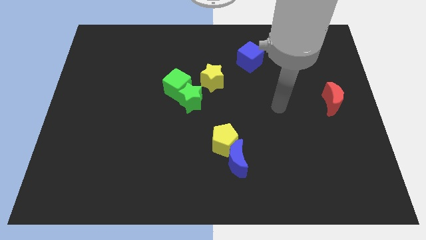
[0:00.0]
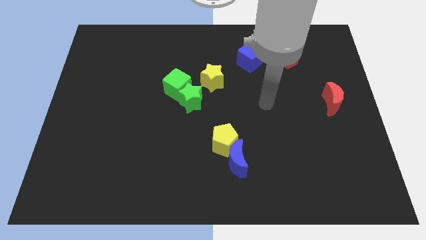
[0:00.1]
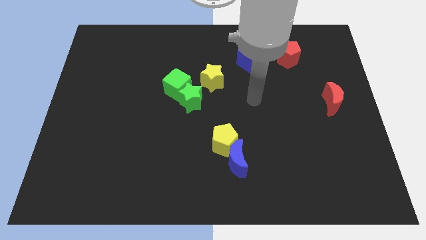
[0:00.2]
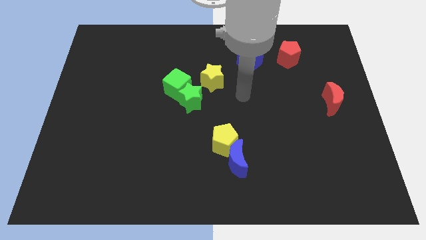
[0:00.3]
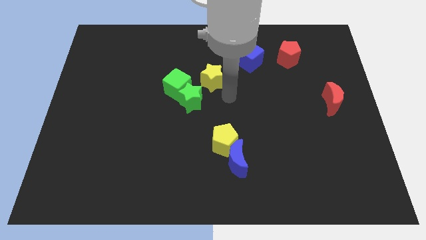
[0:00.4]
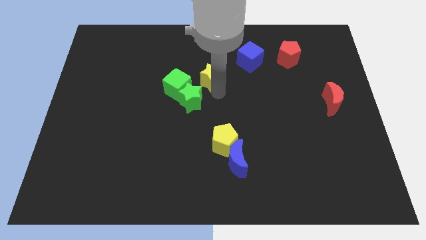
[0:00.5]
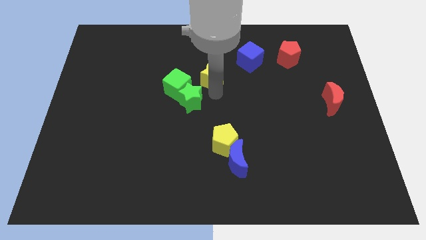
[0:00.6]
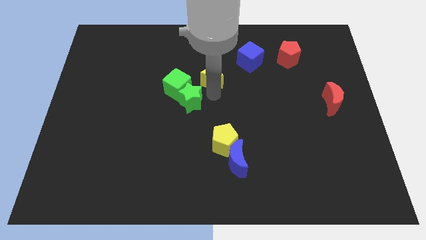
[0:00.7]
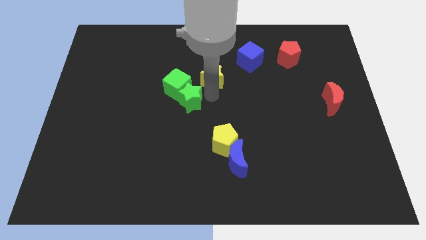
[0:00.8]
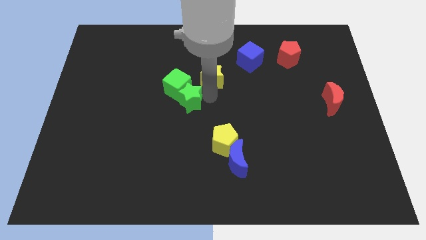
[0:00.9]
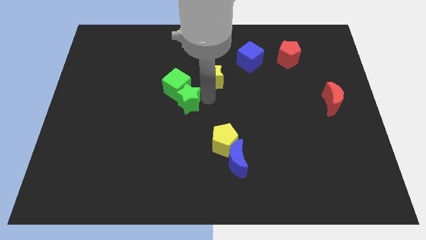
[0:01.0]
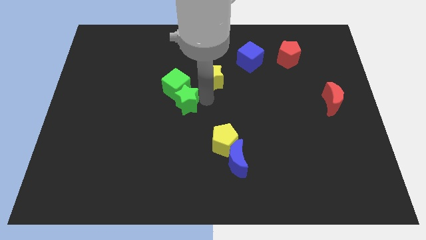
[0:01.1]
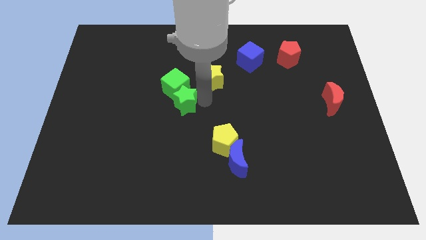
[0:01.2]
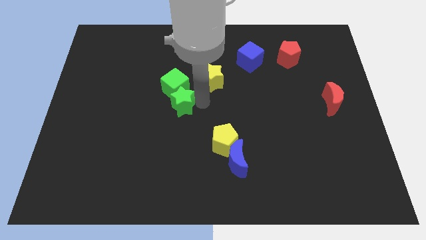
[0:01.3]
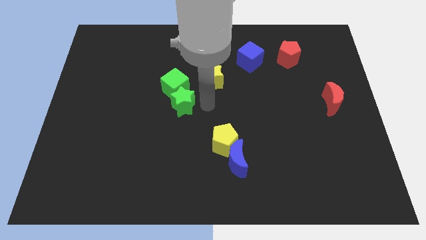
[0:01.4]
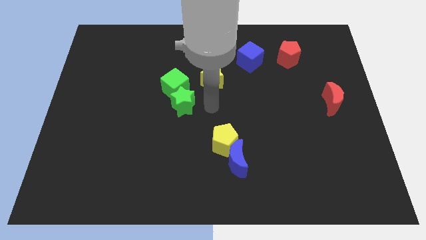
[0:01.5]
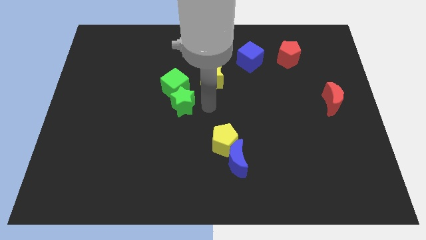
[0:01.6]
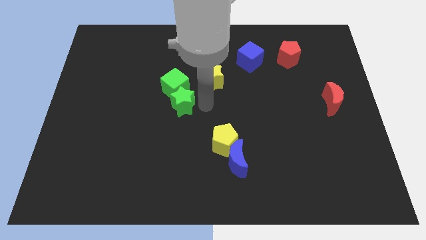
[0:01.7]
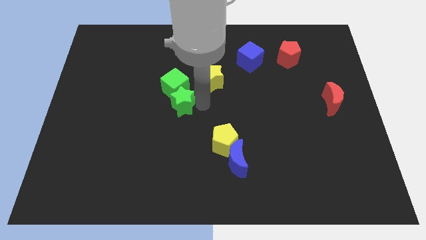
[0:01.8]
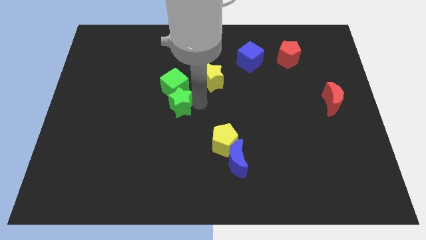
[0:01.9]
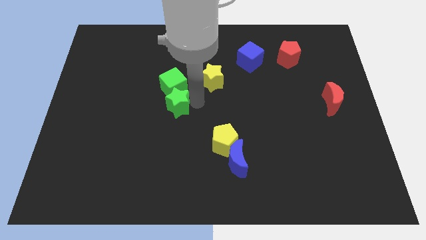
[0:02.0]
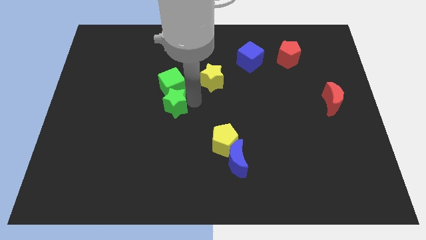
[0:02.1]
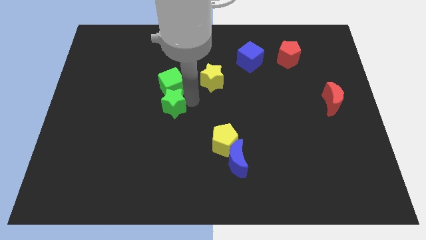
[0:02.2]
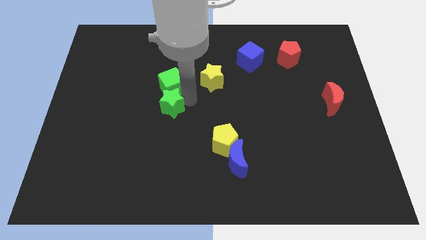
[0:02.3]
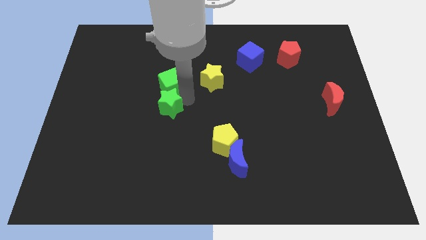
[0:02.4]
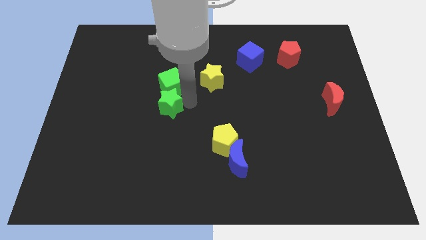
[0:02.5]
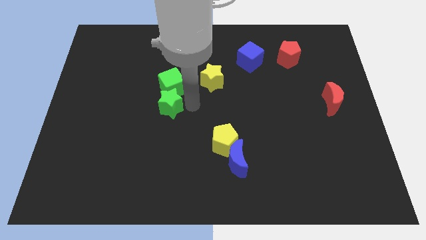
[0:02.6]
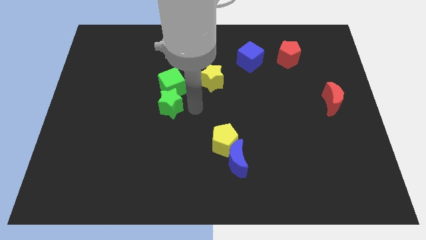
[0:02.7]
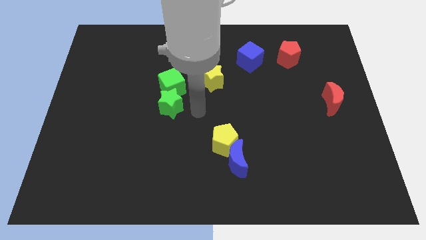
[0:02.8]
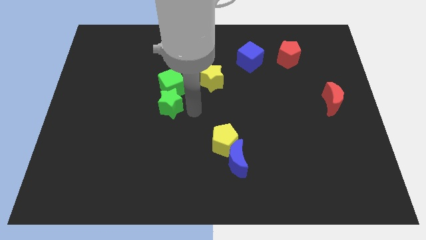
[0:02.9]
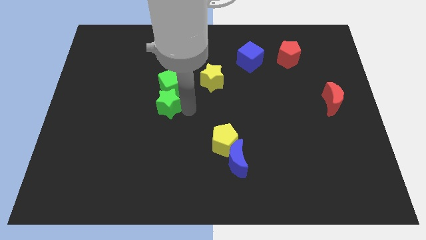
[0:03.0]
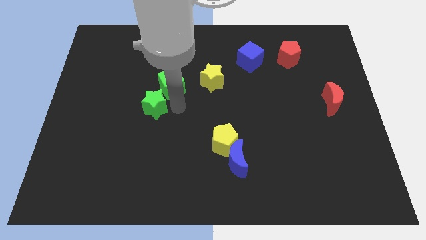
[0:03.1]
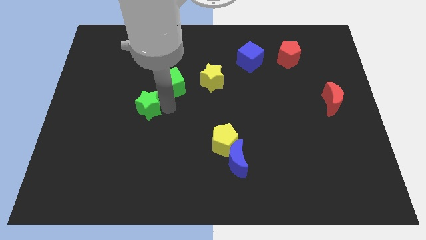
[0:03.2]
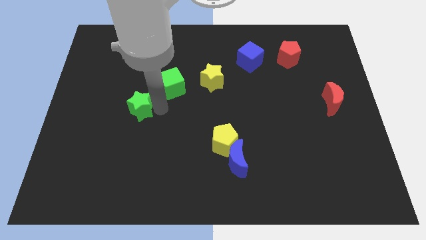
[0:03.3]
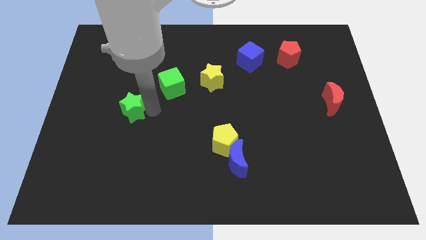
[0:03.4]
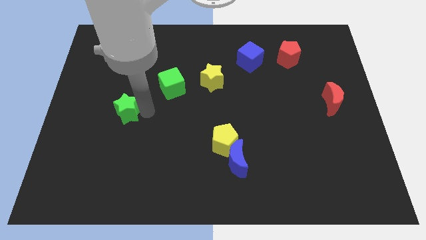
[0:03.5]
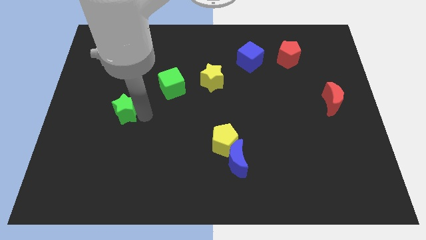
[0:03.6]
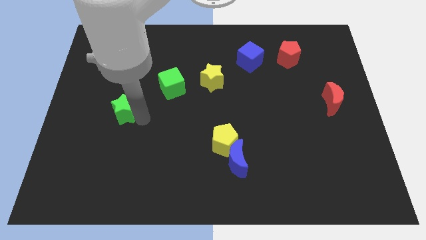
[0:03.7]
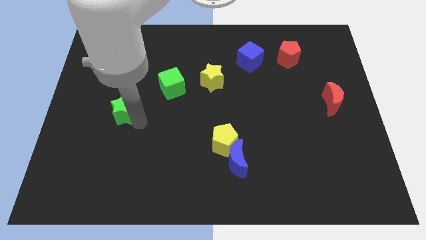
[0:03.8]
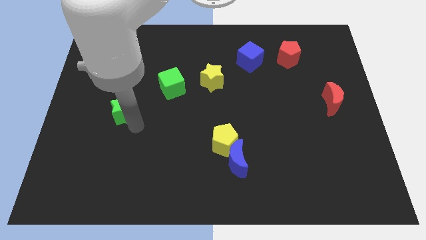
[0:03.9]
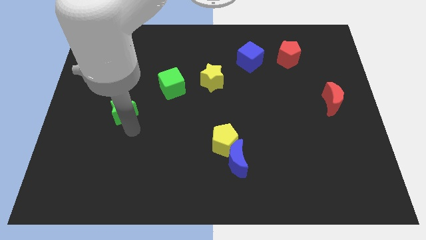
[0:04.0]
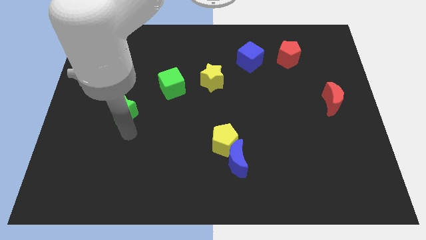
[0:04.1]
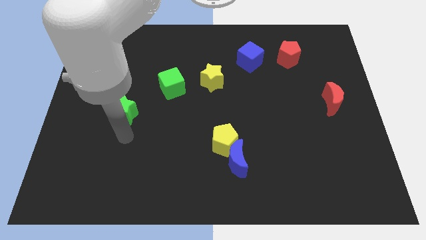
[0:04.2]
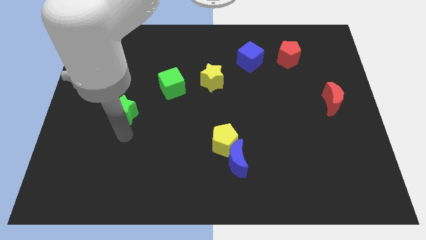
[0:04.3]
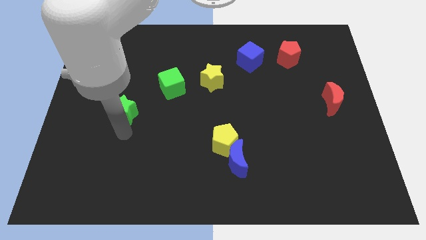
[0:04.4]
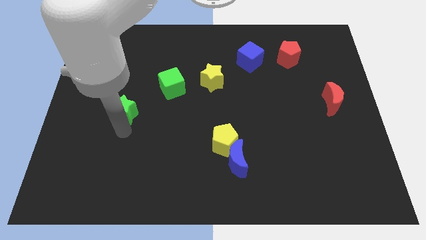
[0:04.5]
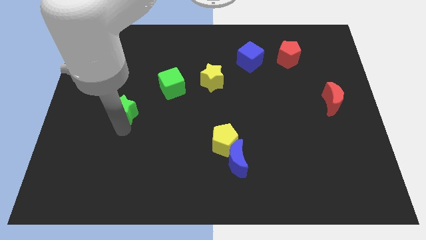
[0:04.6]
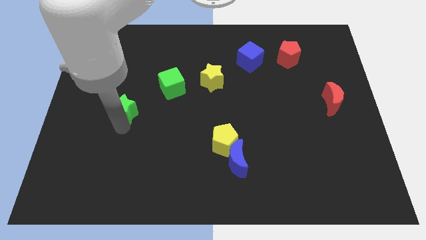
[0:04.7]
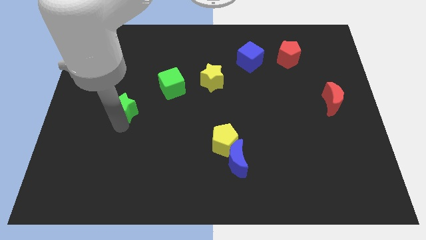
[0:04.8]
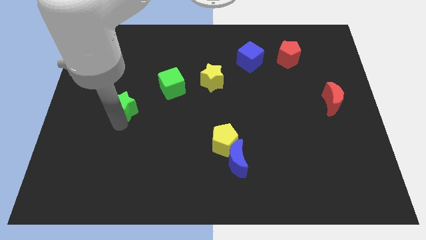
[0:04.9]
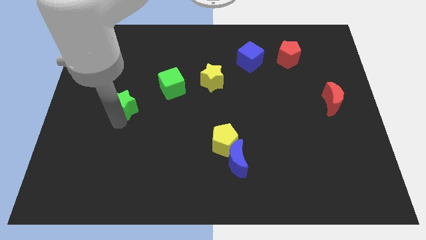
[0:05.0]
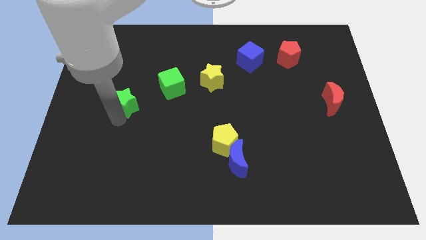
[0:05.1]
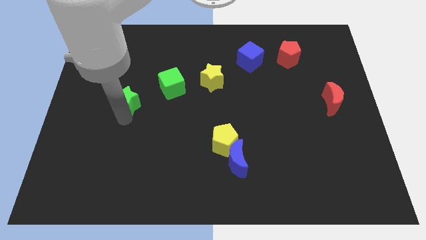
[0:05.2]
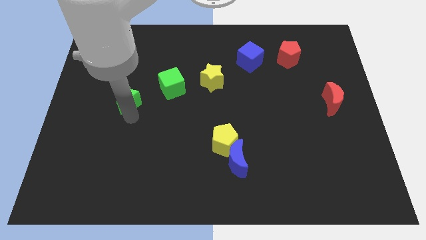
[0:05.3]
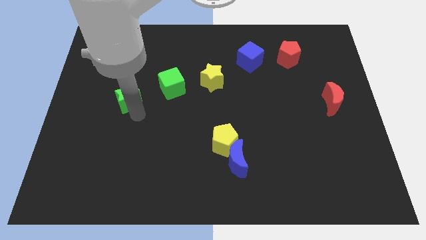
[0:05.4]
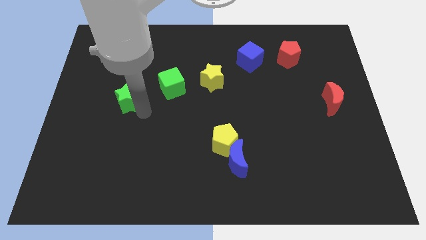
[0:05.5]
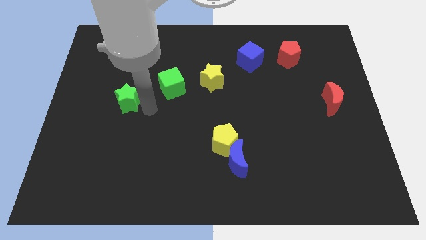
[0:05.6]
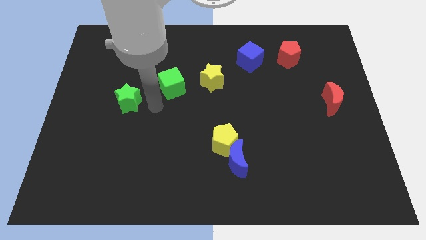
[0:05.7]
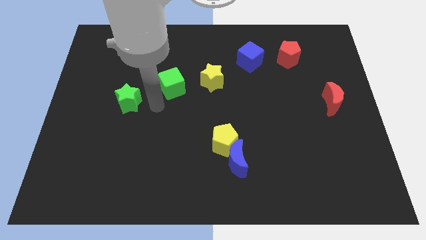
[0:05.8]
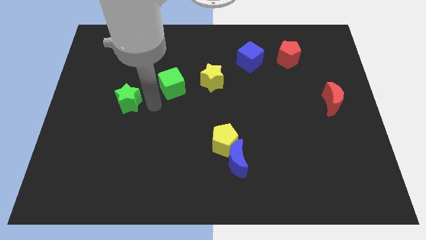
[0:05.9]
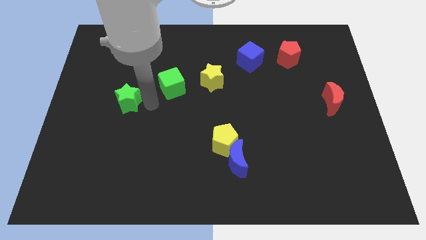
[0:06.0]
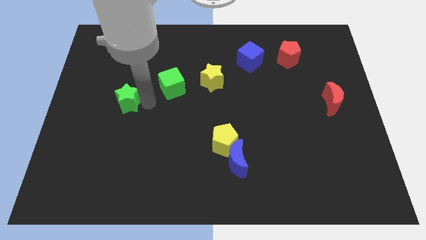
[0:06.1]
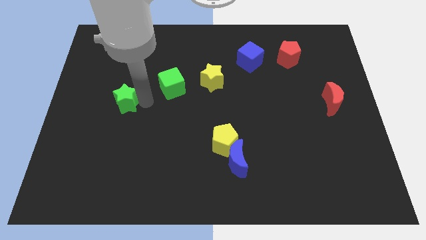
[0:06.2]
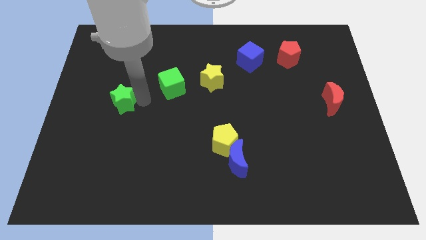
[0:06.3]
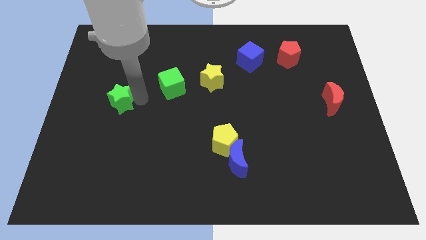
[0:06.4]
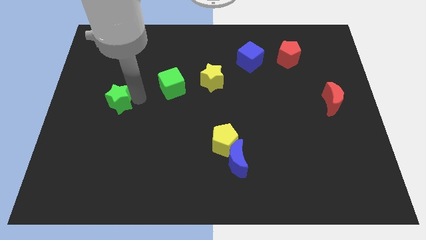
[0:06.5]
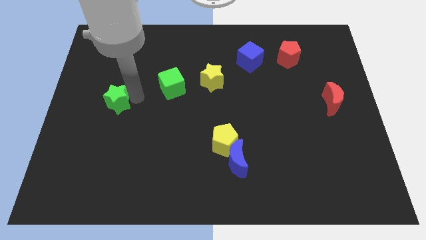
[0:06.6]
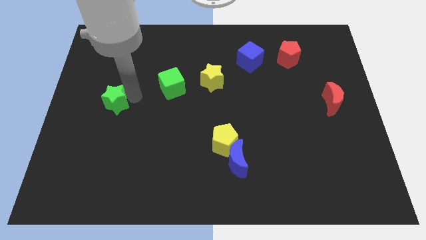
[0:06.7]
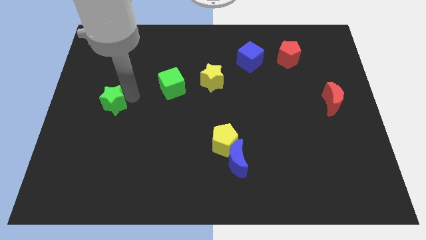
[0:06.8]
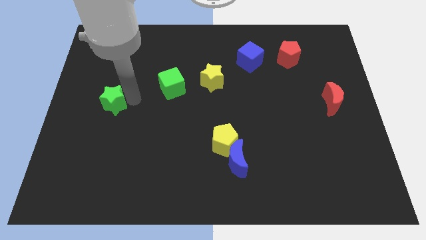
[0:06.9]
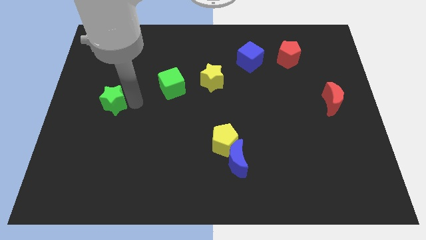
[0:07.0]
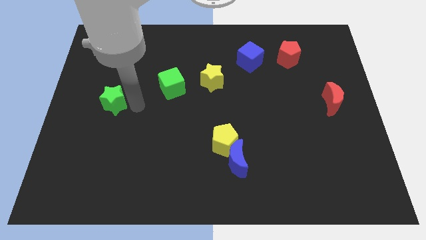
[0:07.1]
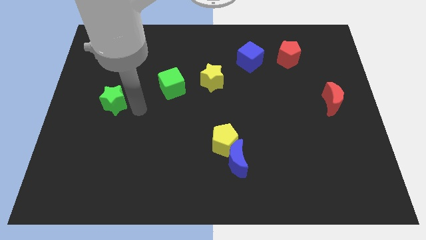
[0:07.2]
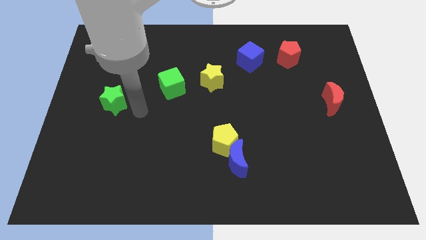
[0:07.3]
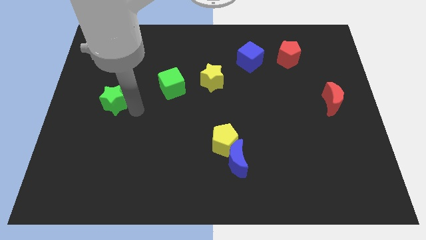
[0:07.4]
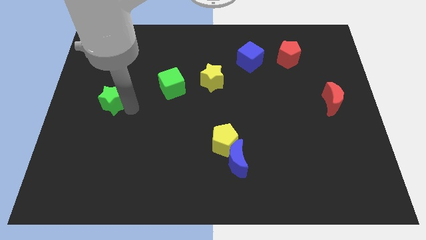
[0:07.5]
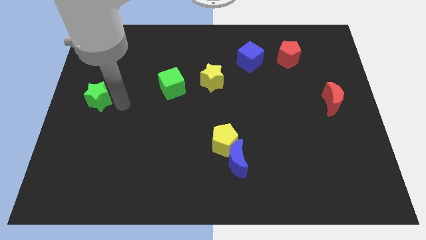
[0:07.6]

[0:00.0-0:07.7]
move the green star to the left side
